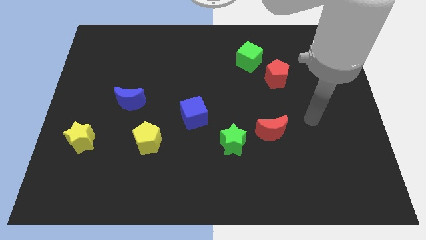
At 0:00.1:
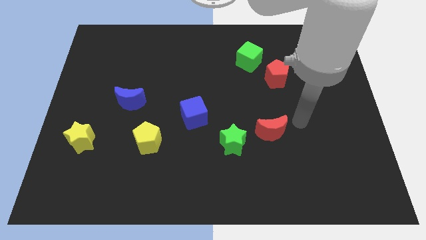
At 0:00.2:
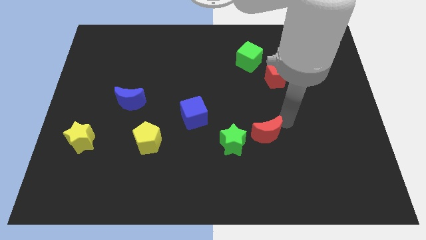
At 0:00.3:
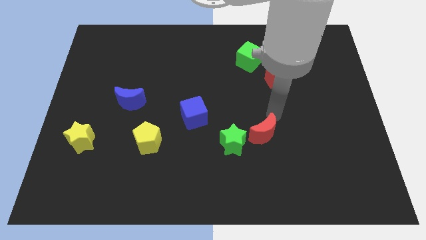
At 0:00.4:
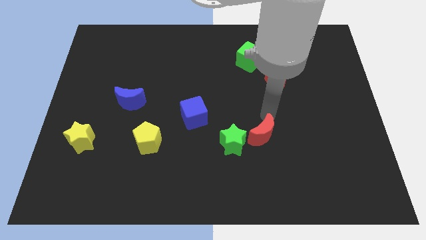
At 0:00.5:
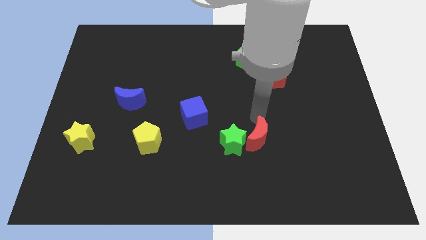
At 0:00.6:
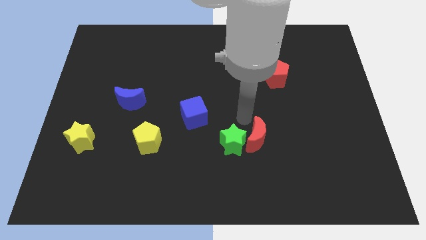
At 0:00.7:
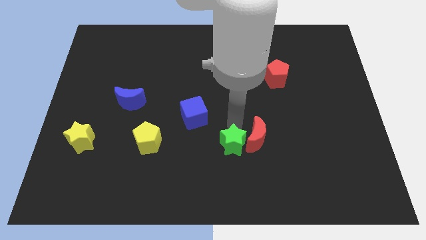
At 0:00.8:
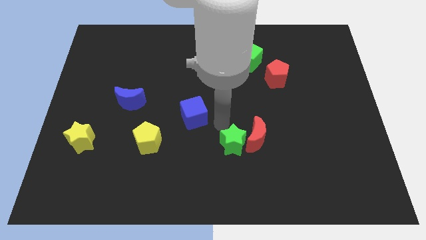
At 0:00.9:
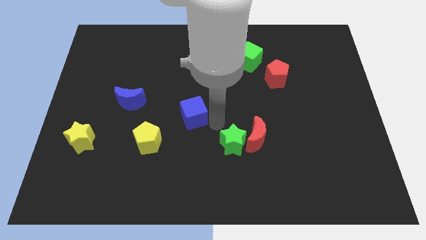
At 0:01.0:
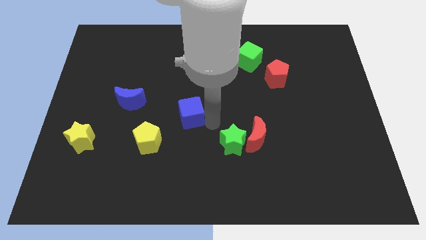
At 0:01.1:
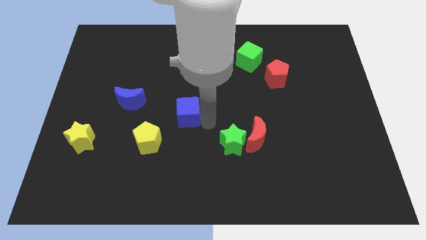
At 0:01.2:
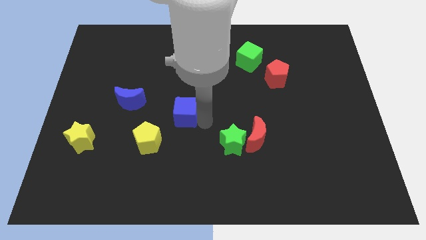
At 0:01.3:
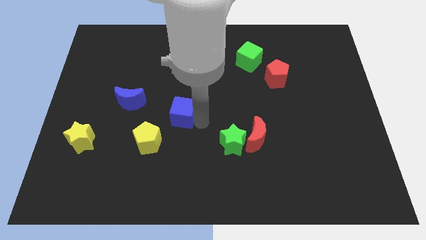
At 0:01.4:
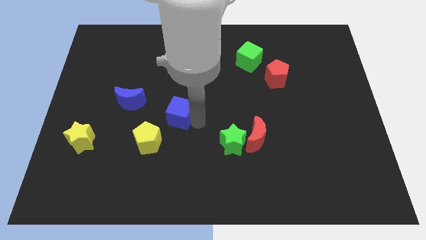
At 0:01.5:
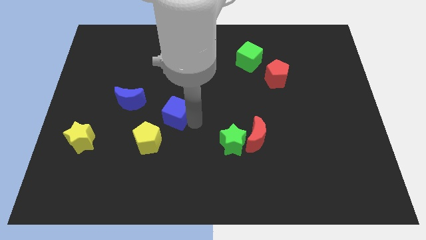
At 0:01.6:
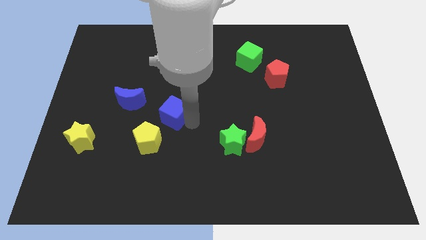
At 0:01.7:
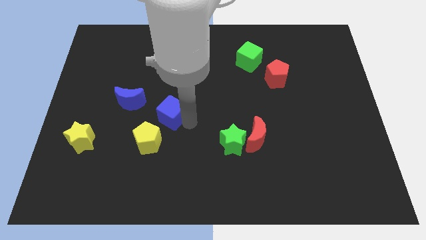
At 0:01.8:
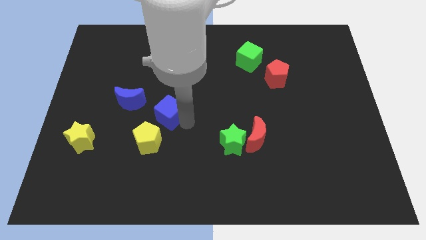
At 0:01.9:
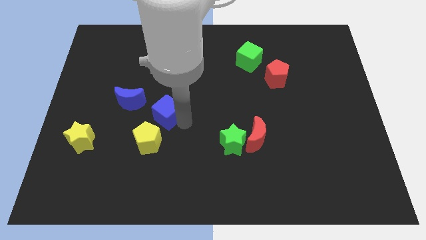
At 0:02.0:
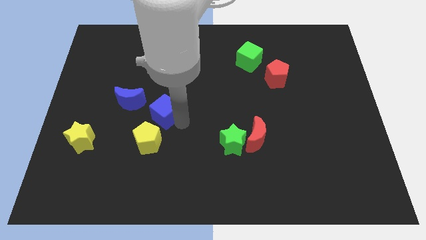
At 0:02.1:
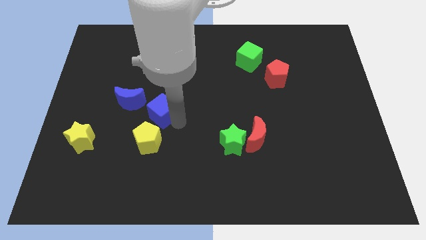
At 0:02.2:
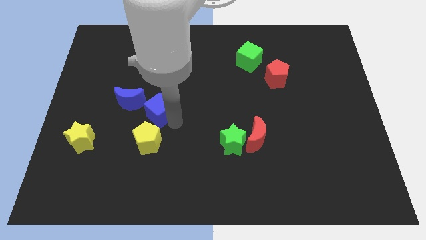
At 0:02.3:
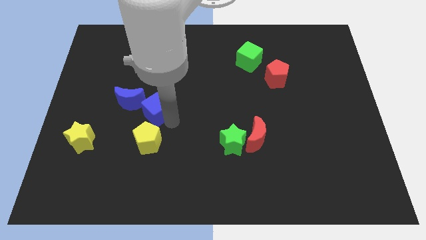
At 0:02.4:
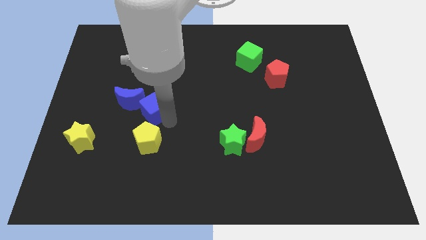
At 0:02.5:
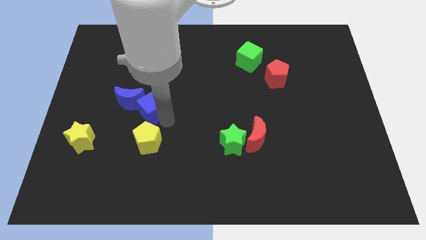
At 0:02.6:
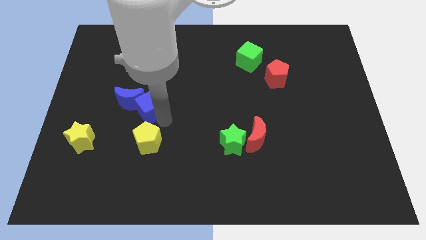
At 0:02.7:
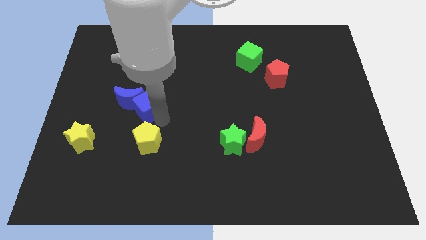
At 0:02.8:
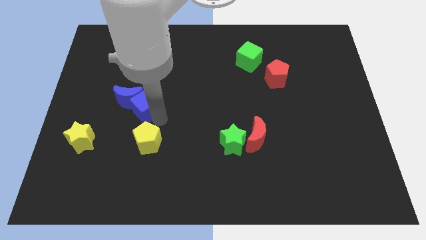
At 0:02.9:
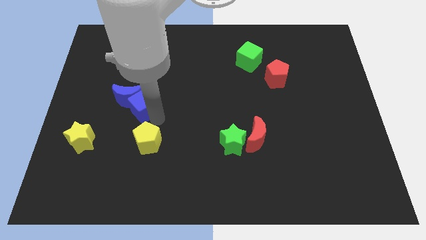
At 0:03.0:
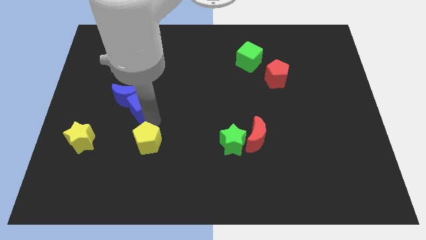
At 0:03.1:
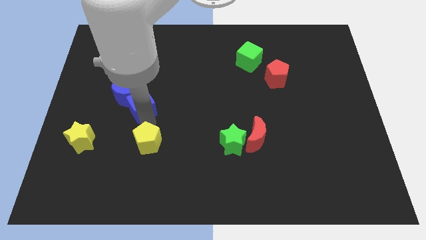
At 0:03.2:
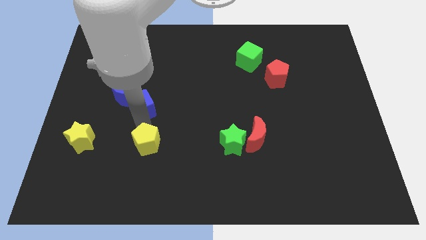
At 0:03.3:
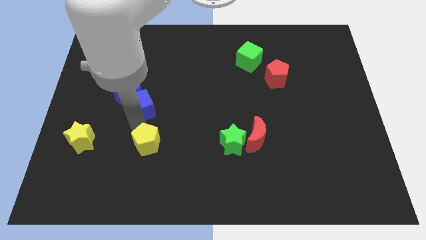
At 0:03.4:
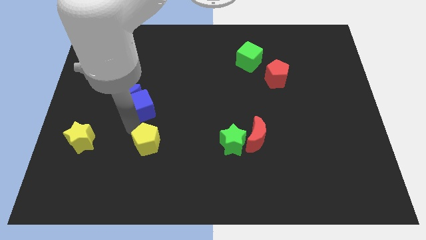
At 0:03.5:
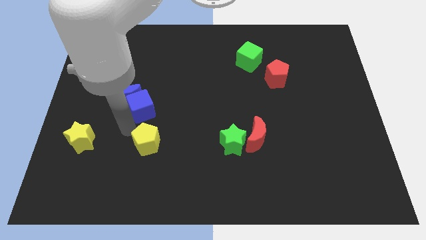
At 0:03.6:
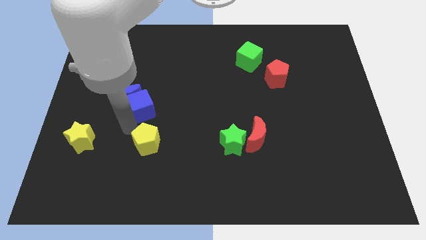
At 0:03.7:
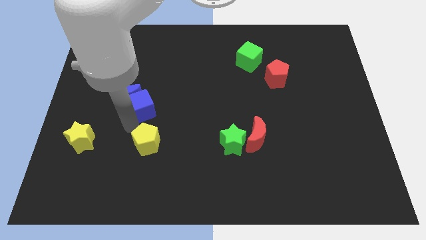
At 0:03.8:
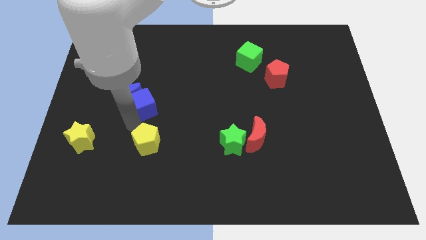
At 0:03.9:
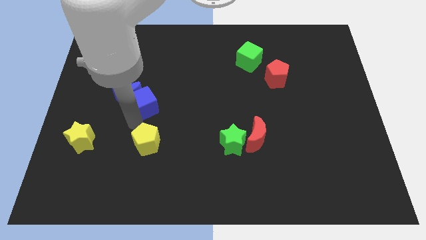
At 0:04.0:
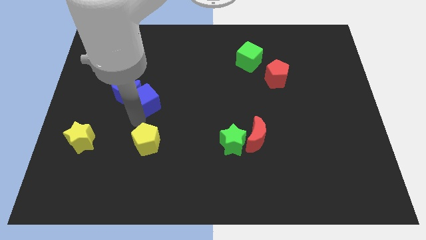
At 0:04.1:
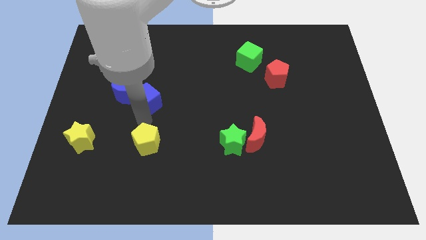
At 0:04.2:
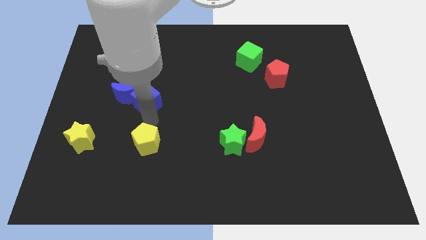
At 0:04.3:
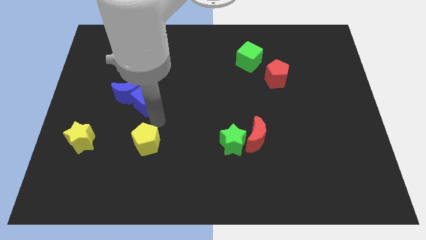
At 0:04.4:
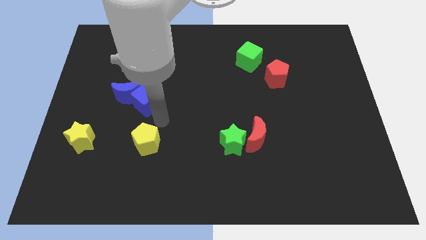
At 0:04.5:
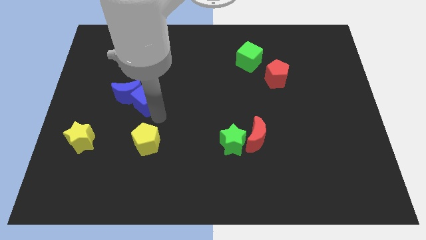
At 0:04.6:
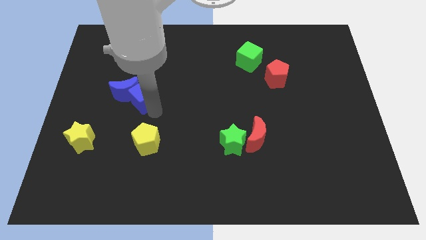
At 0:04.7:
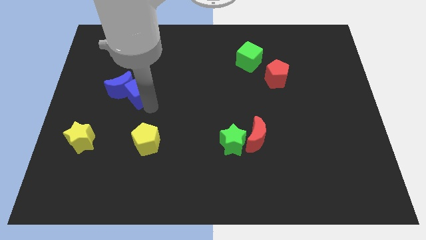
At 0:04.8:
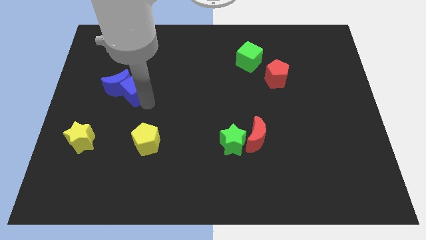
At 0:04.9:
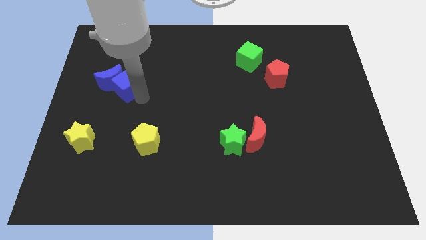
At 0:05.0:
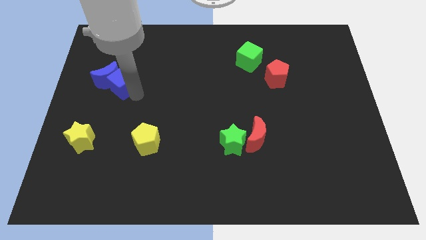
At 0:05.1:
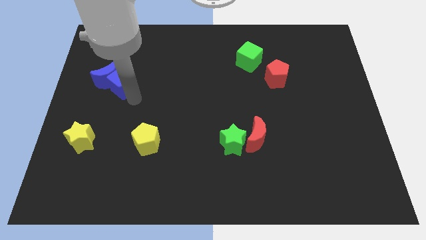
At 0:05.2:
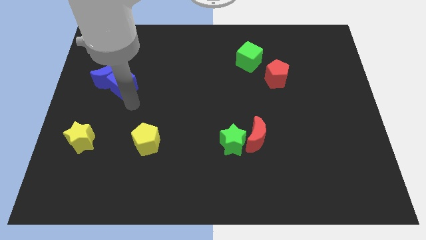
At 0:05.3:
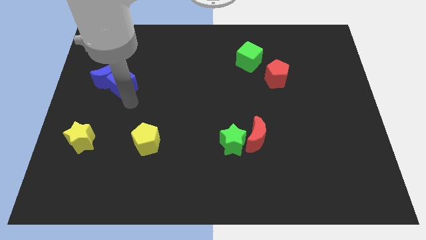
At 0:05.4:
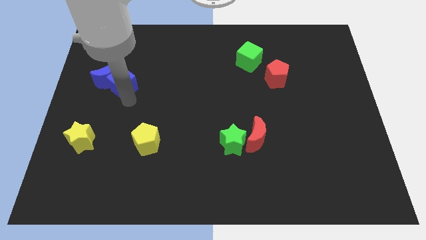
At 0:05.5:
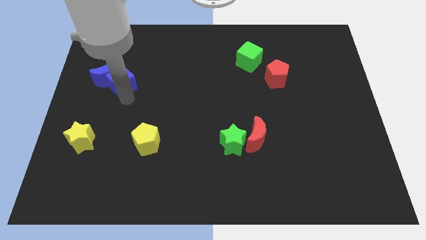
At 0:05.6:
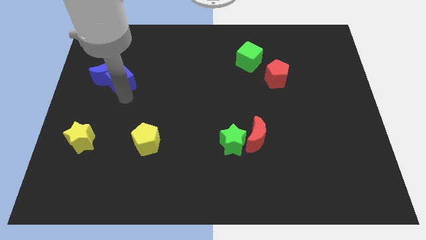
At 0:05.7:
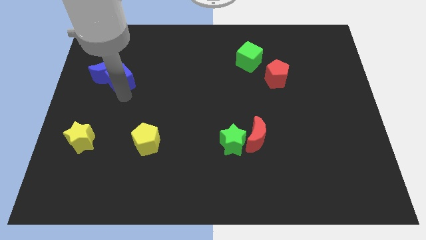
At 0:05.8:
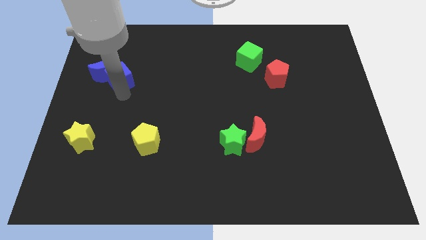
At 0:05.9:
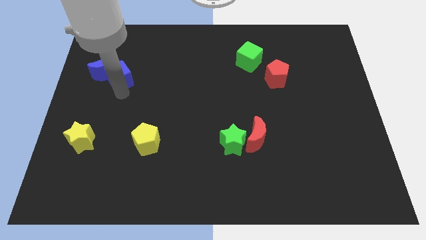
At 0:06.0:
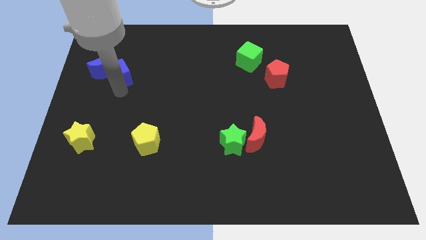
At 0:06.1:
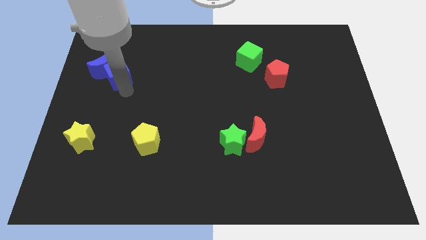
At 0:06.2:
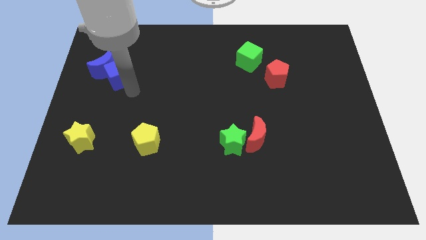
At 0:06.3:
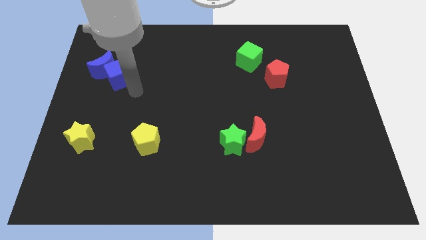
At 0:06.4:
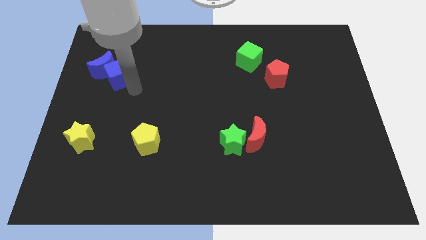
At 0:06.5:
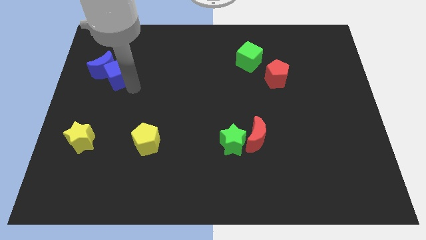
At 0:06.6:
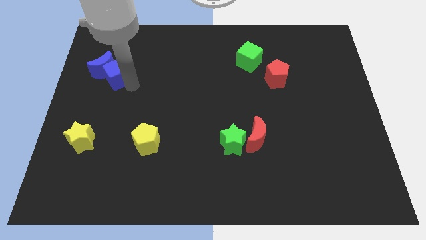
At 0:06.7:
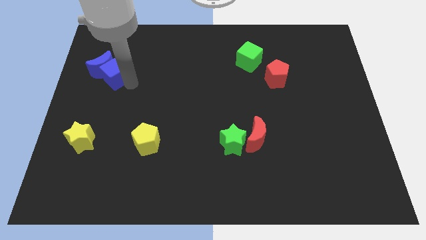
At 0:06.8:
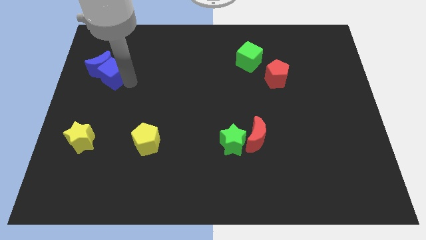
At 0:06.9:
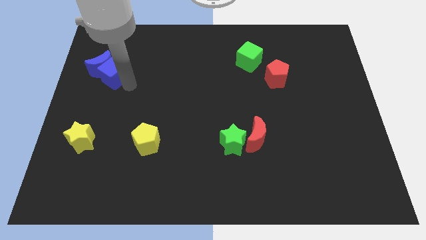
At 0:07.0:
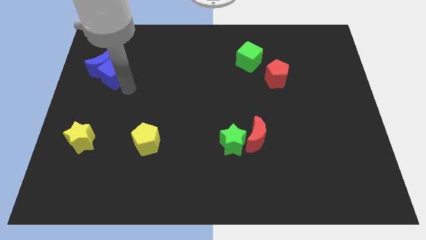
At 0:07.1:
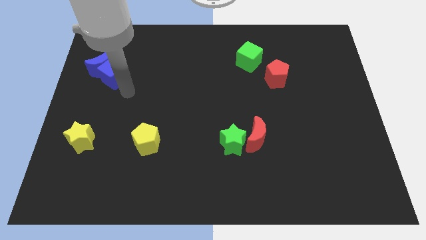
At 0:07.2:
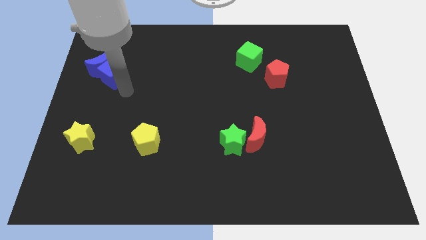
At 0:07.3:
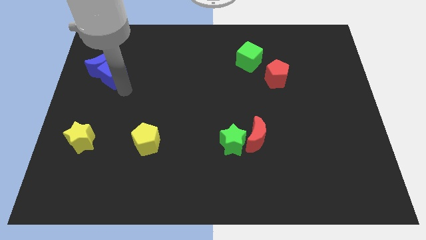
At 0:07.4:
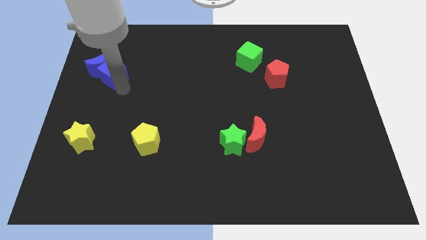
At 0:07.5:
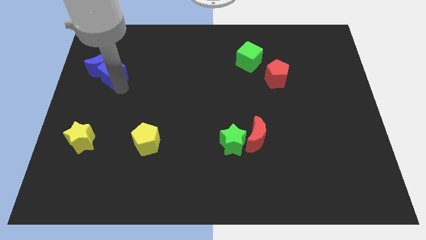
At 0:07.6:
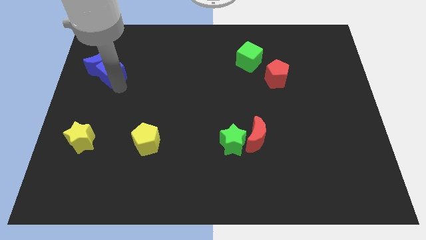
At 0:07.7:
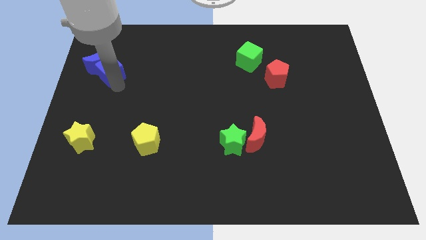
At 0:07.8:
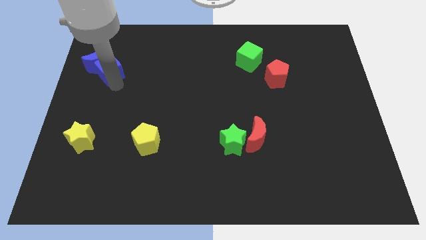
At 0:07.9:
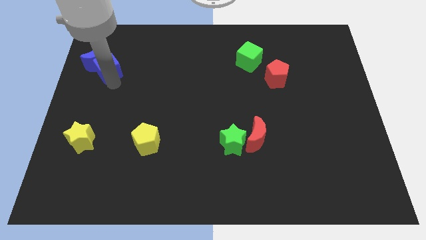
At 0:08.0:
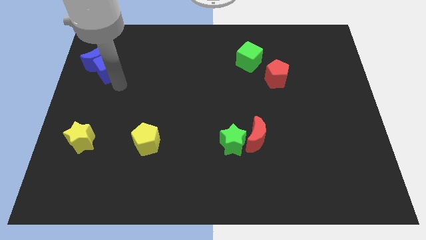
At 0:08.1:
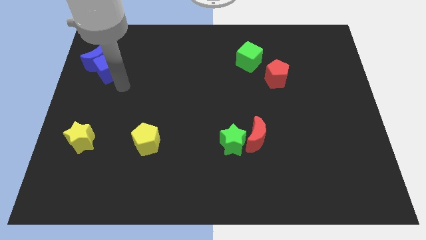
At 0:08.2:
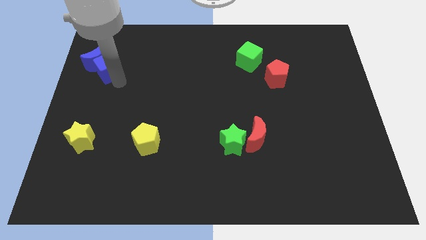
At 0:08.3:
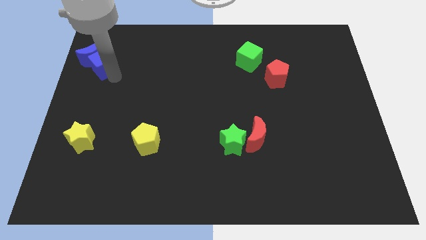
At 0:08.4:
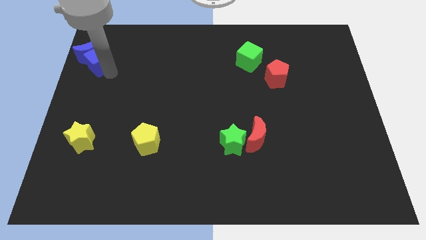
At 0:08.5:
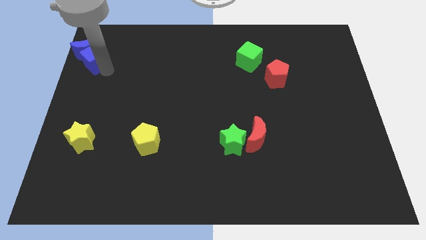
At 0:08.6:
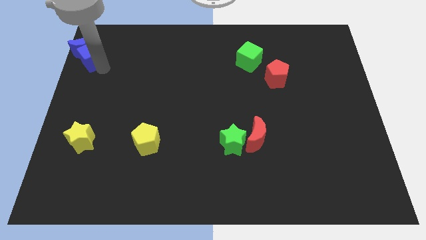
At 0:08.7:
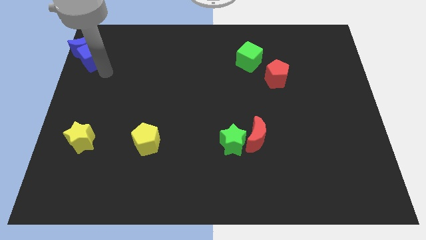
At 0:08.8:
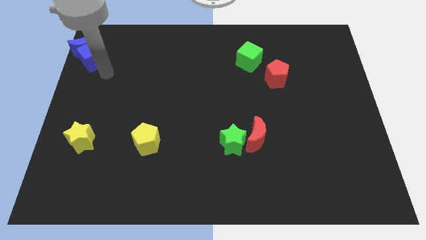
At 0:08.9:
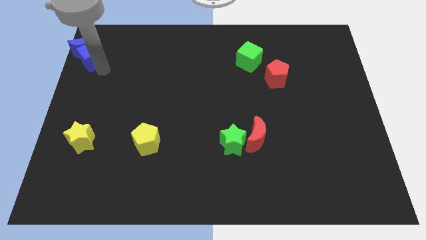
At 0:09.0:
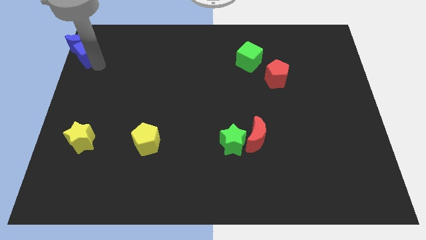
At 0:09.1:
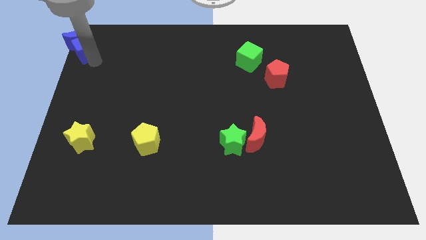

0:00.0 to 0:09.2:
move the blue cube to the top left corner
